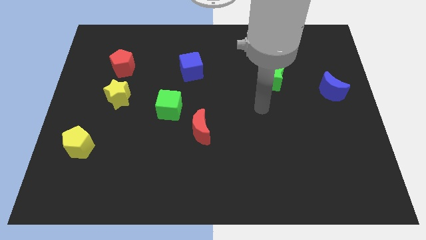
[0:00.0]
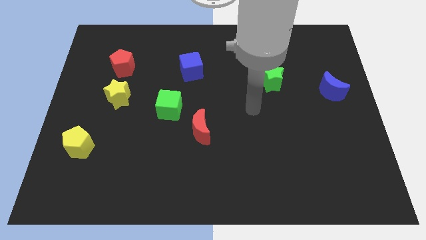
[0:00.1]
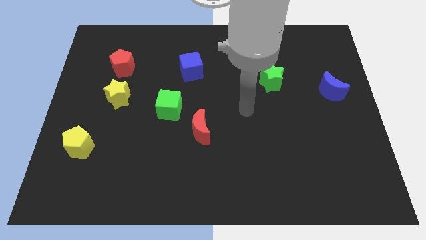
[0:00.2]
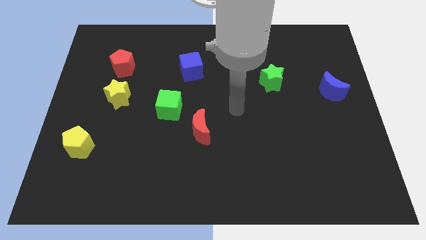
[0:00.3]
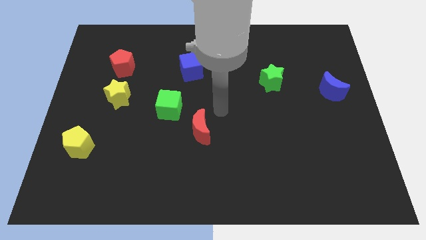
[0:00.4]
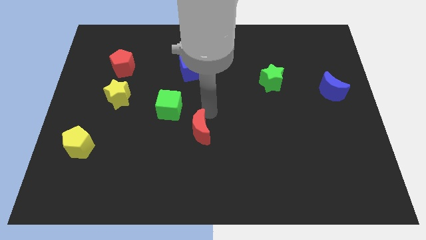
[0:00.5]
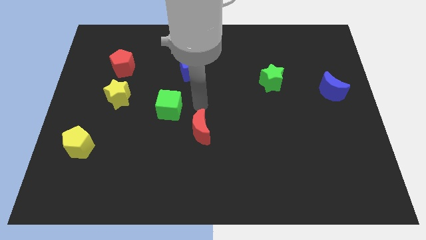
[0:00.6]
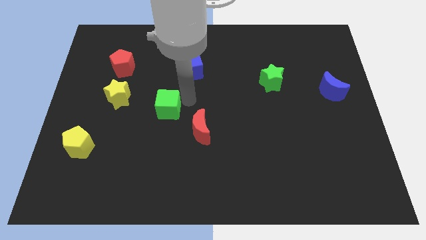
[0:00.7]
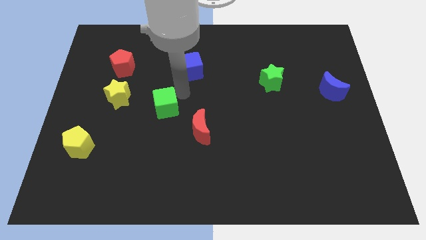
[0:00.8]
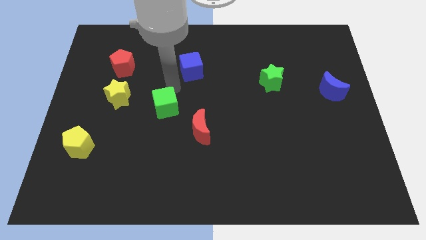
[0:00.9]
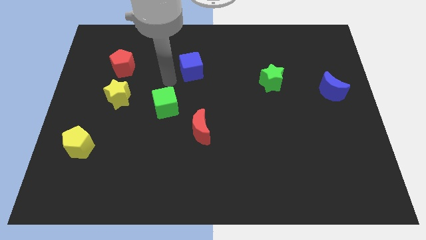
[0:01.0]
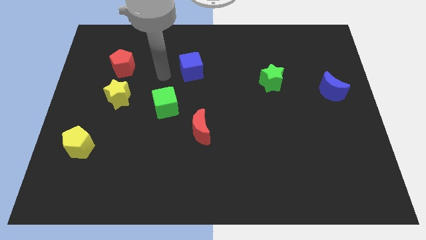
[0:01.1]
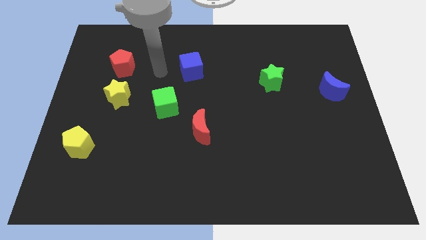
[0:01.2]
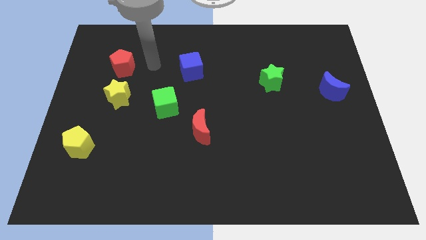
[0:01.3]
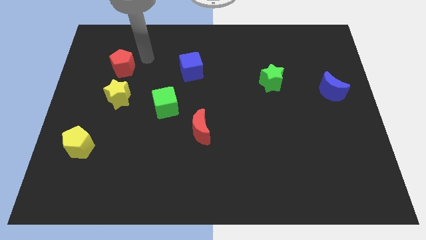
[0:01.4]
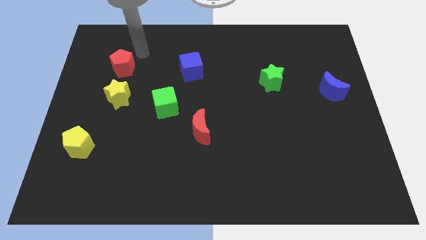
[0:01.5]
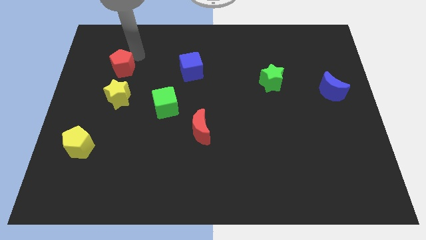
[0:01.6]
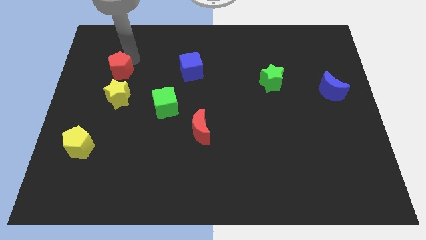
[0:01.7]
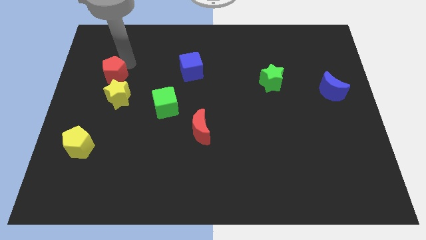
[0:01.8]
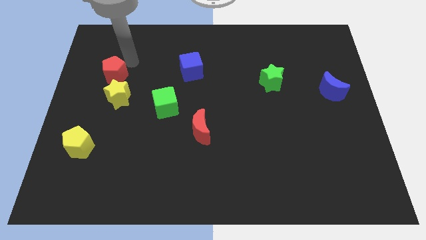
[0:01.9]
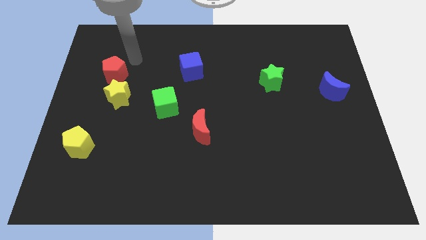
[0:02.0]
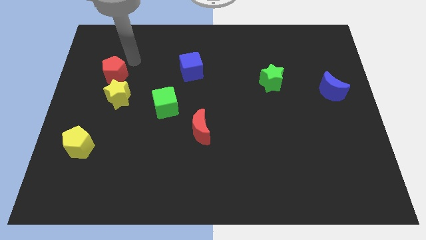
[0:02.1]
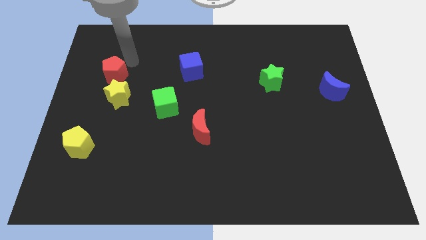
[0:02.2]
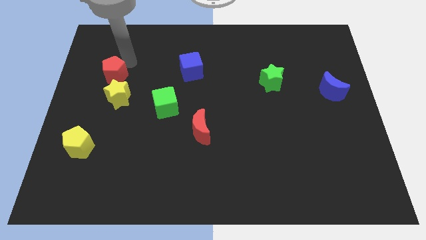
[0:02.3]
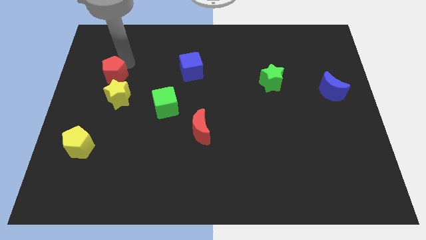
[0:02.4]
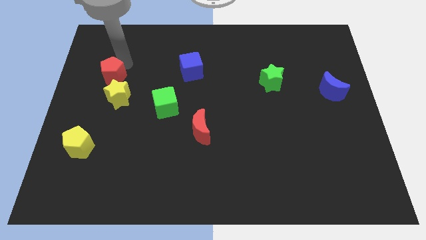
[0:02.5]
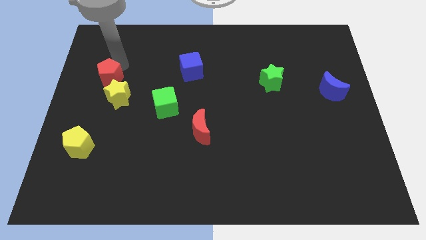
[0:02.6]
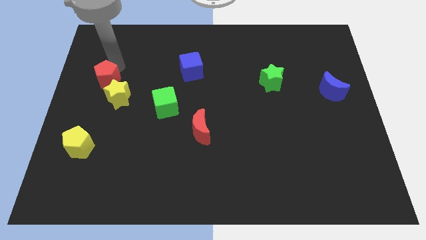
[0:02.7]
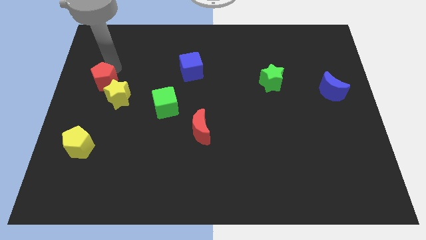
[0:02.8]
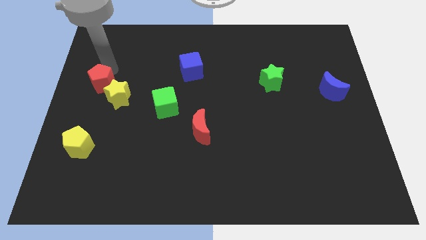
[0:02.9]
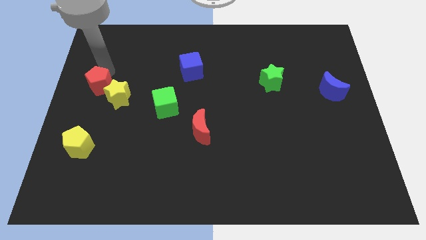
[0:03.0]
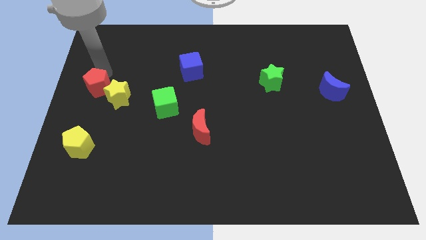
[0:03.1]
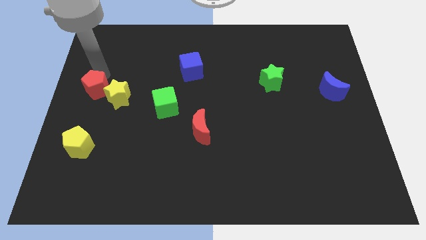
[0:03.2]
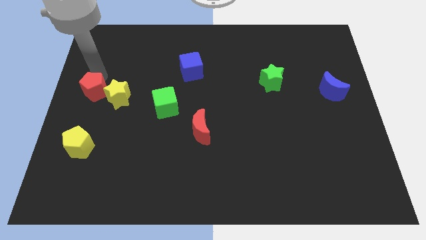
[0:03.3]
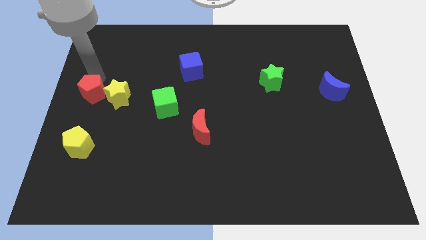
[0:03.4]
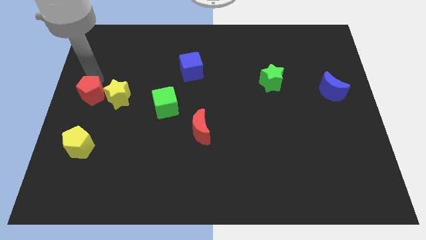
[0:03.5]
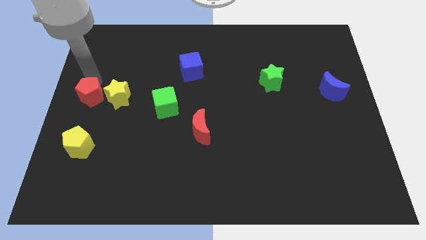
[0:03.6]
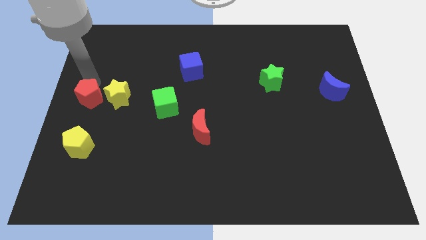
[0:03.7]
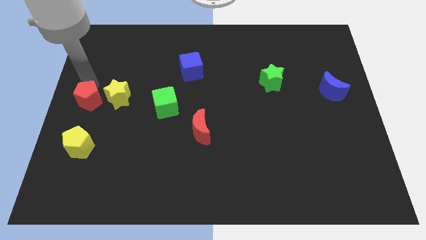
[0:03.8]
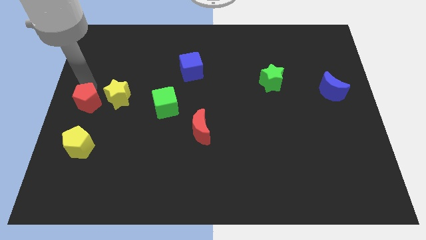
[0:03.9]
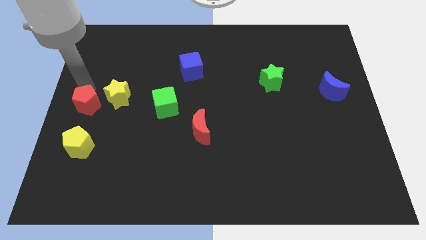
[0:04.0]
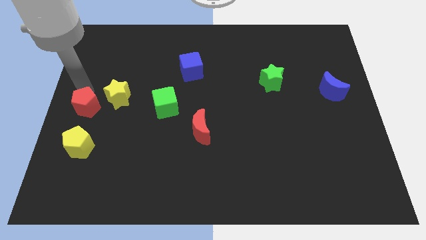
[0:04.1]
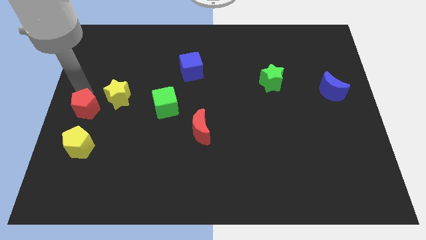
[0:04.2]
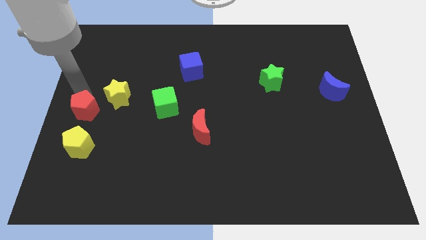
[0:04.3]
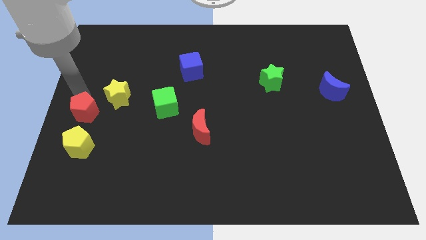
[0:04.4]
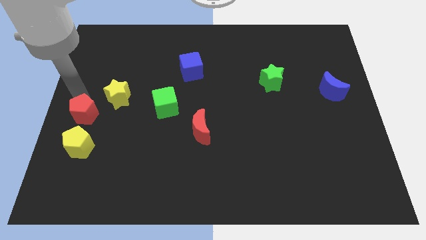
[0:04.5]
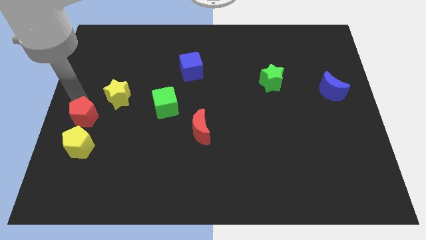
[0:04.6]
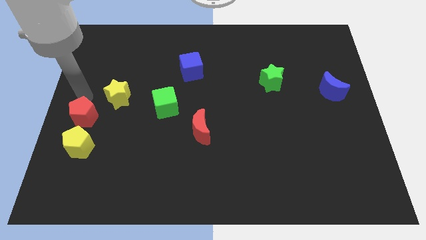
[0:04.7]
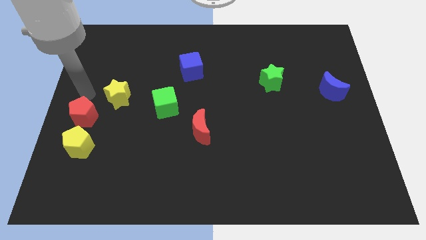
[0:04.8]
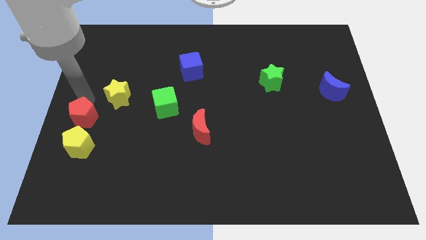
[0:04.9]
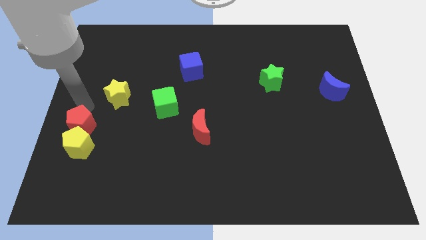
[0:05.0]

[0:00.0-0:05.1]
move the red pentagon to the yellow pentagon

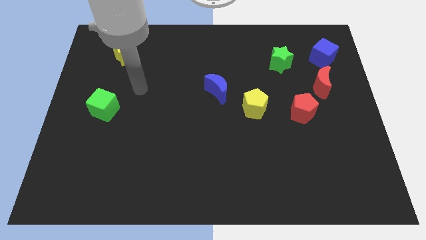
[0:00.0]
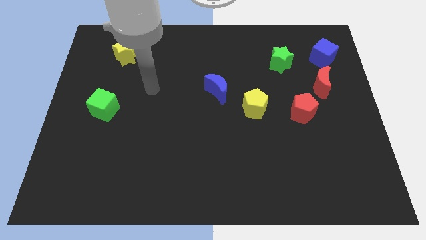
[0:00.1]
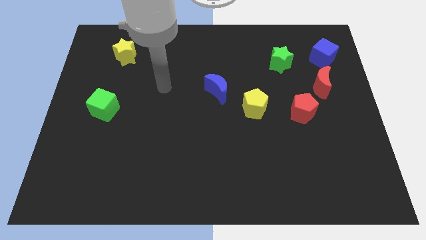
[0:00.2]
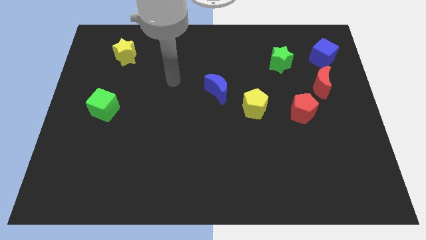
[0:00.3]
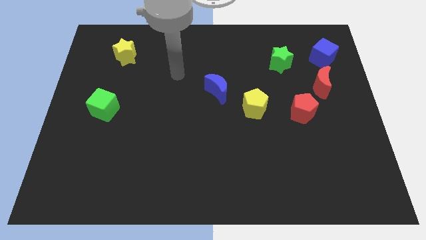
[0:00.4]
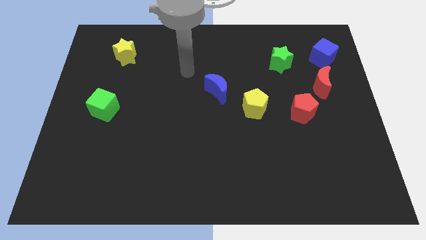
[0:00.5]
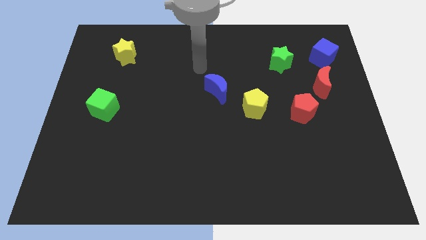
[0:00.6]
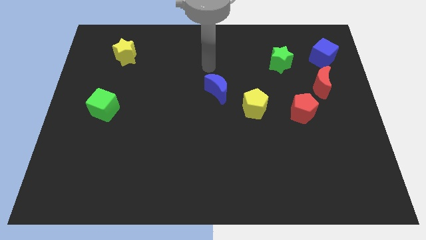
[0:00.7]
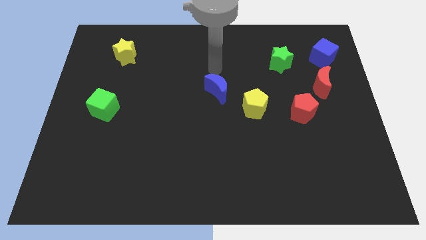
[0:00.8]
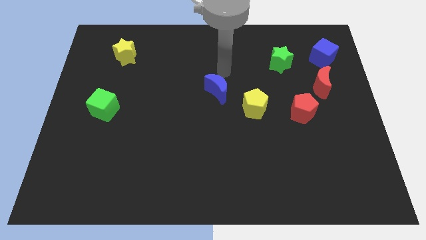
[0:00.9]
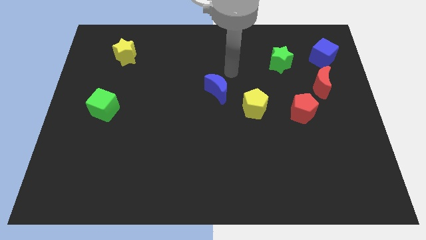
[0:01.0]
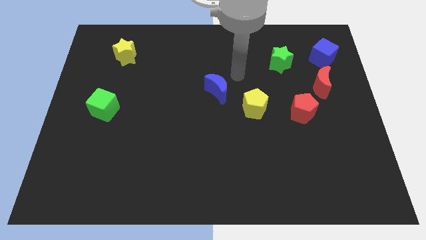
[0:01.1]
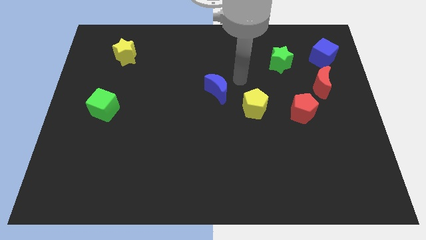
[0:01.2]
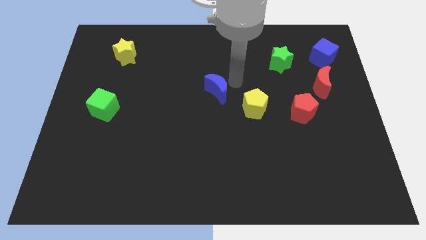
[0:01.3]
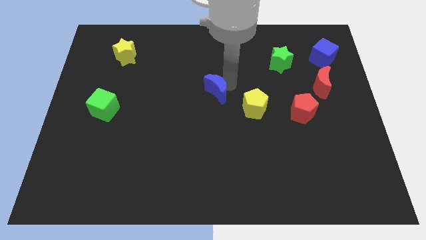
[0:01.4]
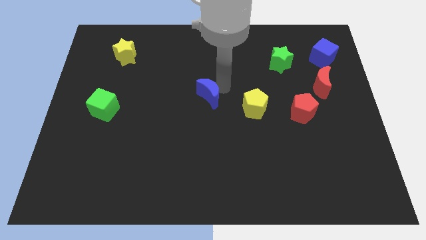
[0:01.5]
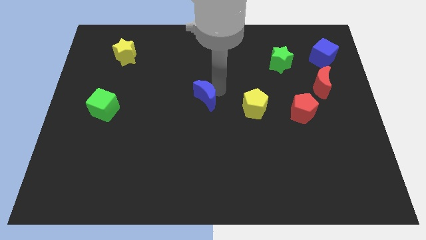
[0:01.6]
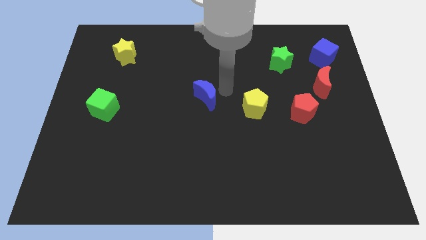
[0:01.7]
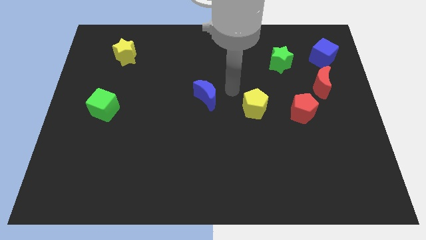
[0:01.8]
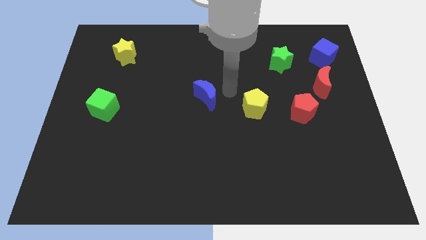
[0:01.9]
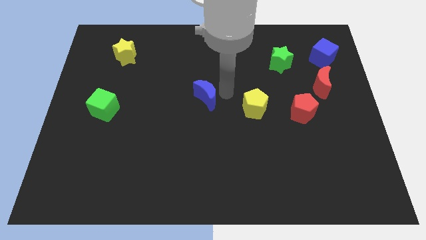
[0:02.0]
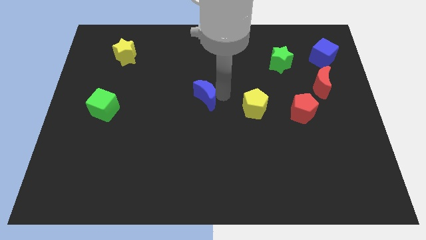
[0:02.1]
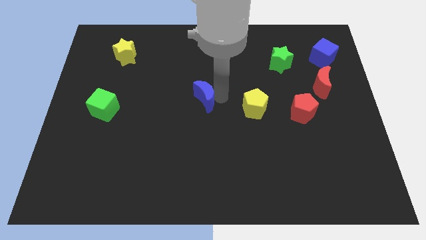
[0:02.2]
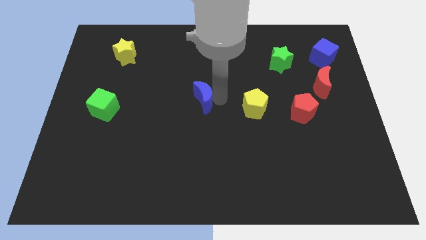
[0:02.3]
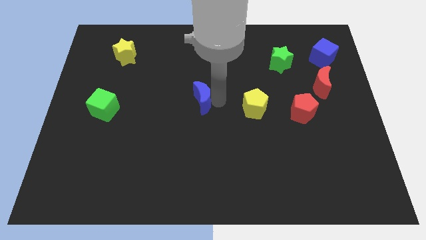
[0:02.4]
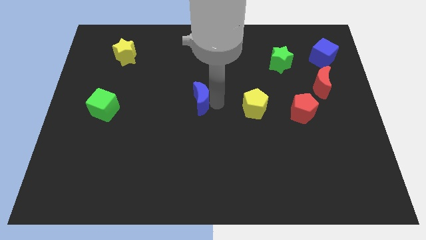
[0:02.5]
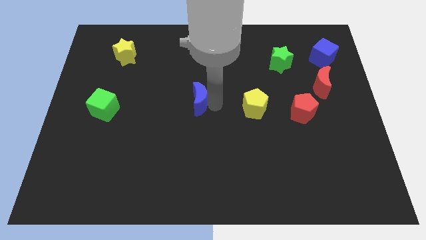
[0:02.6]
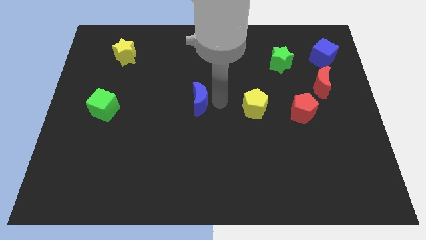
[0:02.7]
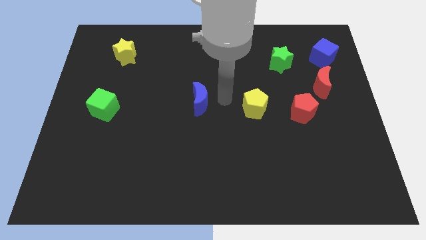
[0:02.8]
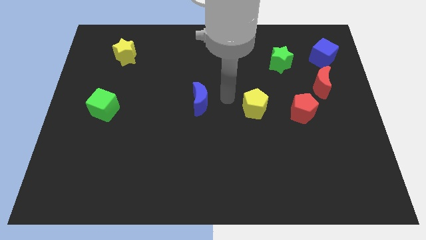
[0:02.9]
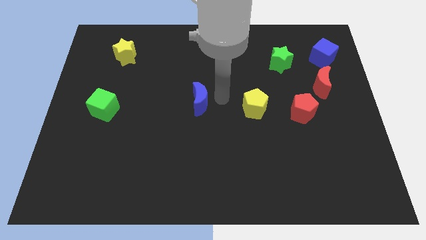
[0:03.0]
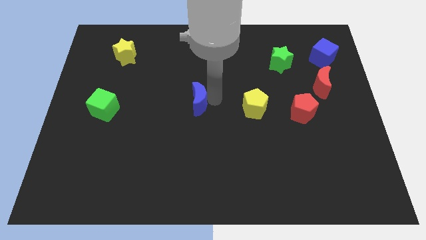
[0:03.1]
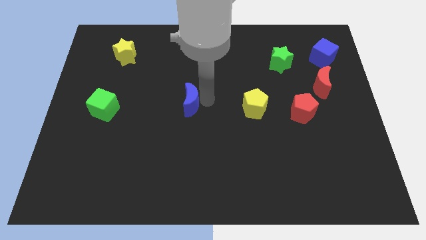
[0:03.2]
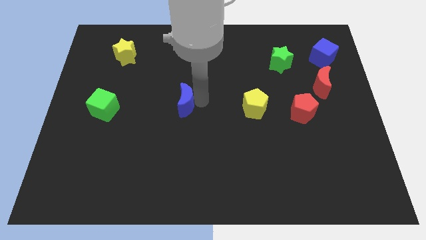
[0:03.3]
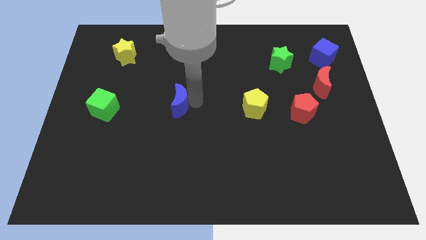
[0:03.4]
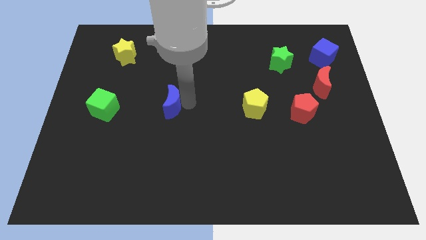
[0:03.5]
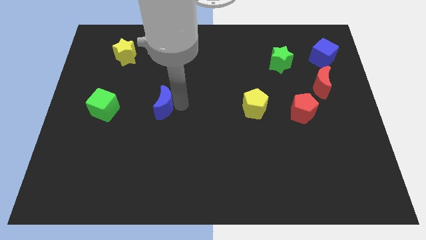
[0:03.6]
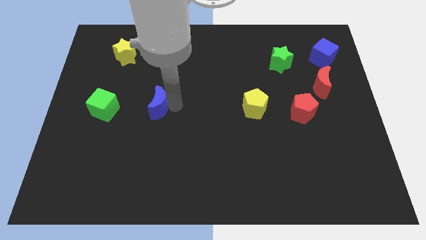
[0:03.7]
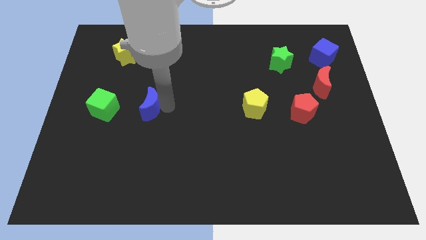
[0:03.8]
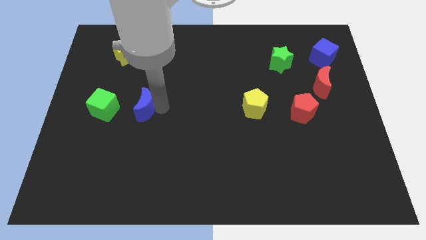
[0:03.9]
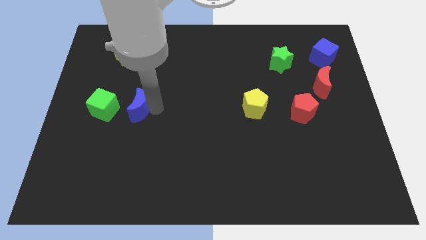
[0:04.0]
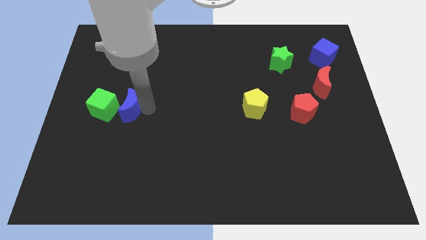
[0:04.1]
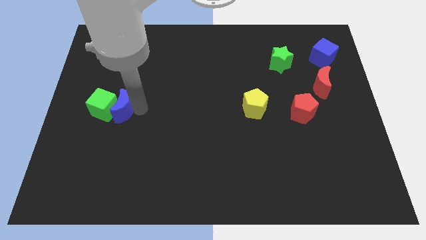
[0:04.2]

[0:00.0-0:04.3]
move the blue moon next to the green cube
